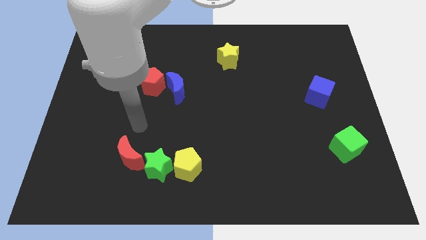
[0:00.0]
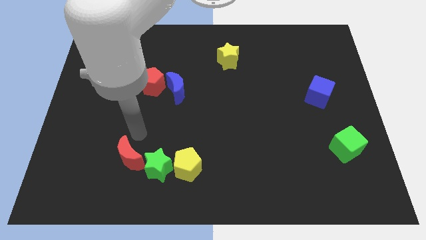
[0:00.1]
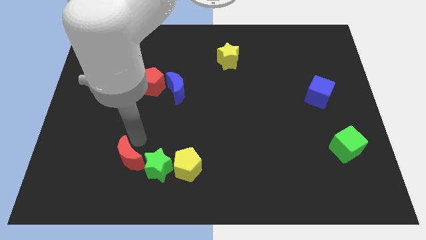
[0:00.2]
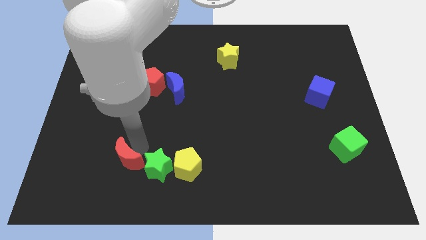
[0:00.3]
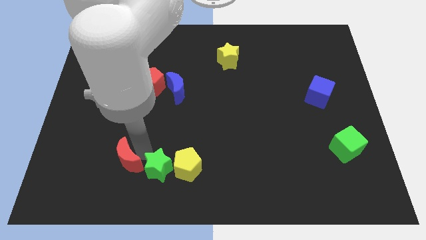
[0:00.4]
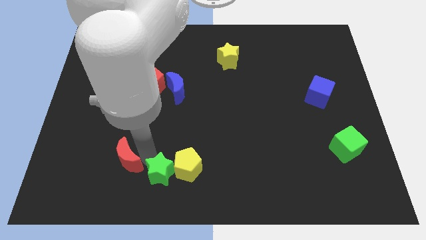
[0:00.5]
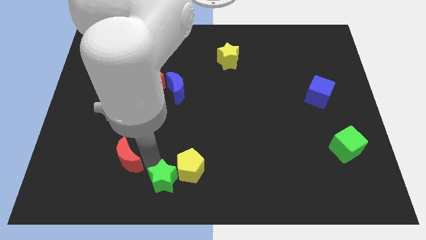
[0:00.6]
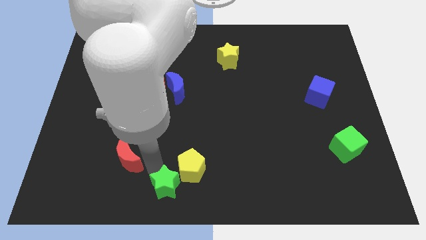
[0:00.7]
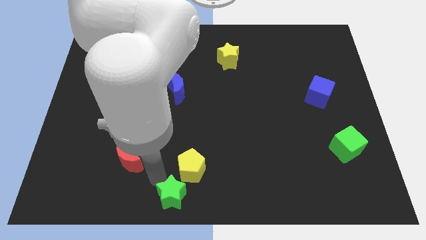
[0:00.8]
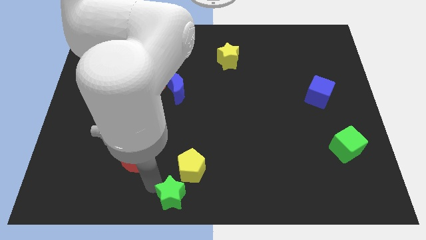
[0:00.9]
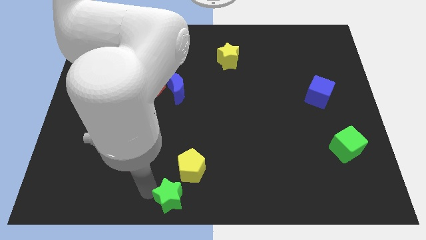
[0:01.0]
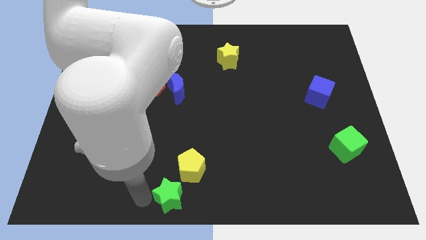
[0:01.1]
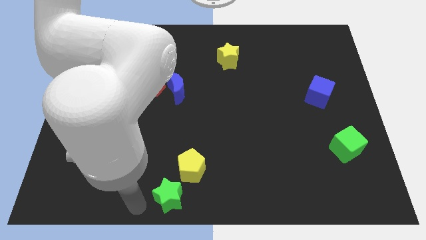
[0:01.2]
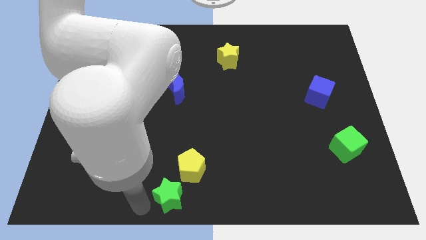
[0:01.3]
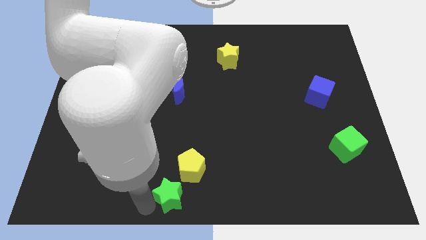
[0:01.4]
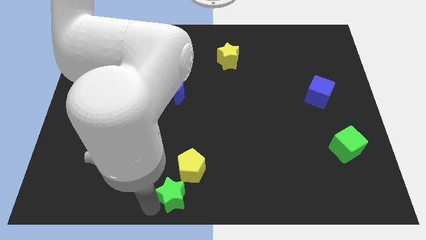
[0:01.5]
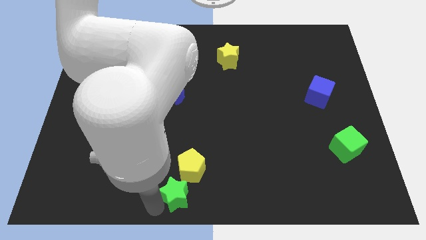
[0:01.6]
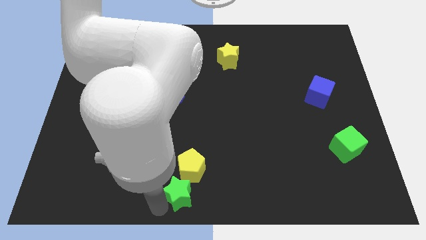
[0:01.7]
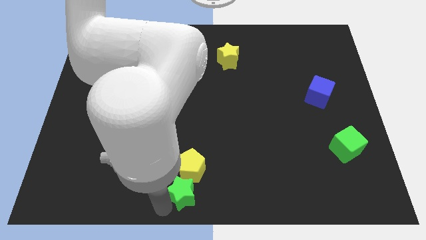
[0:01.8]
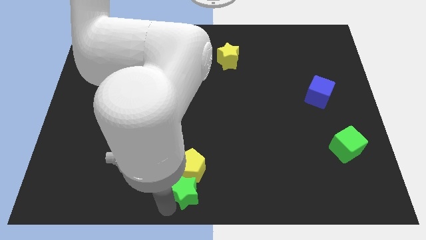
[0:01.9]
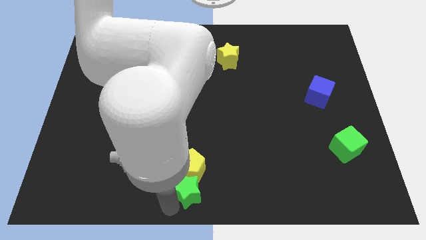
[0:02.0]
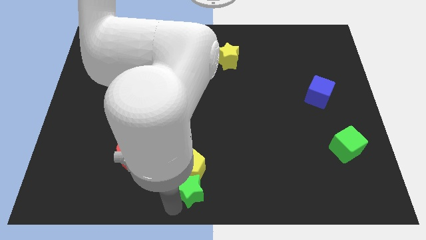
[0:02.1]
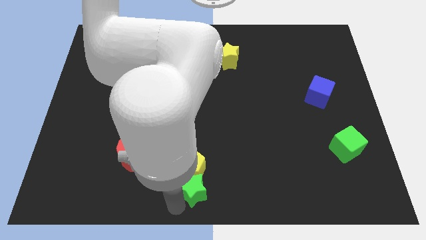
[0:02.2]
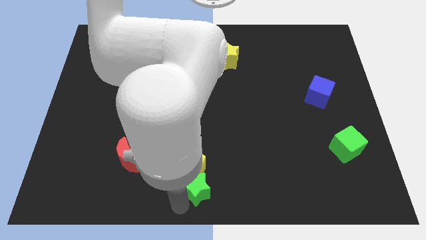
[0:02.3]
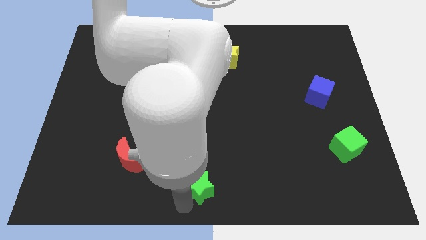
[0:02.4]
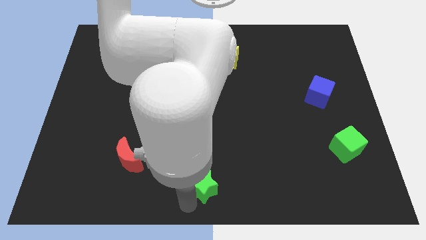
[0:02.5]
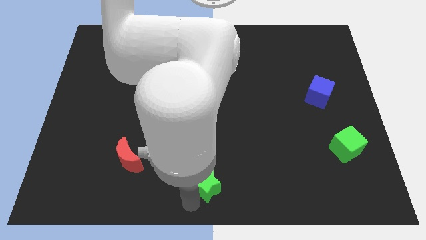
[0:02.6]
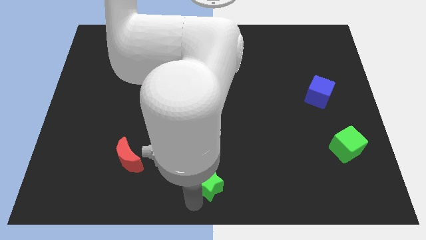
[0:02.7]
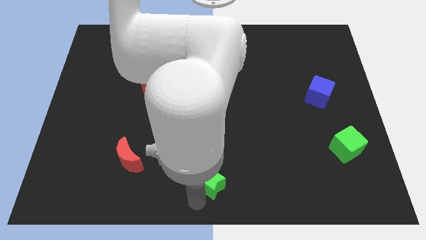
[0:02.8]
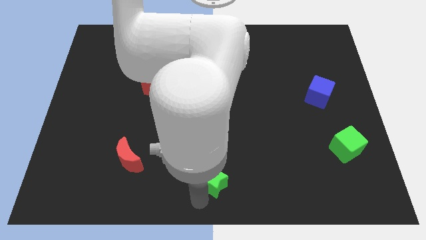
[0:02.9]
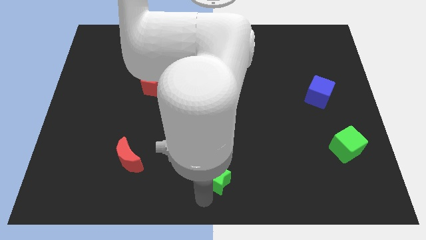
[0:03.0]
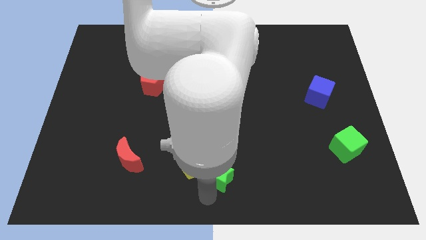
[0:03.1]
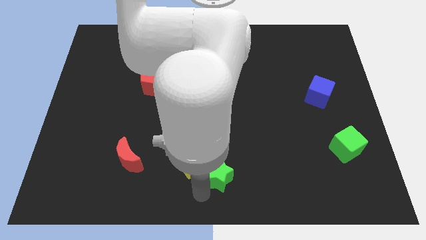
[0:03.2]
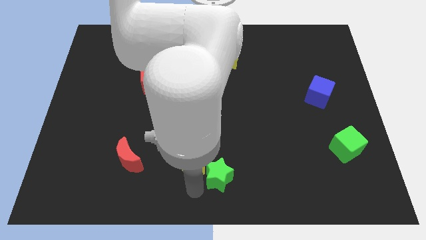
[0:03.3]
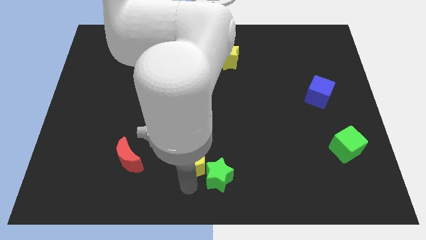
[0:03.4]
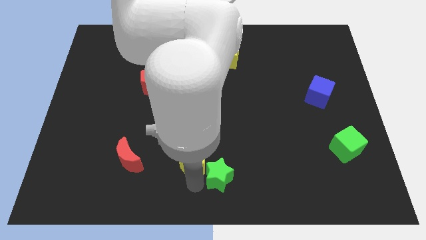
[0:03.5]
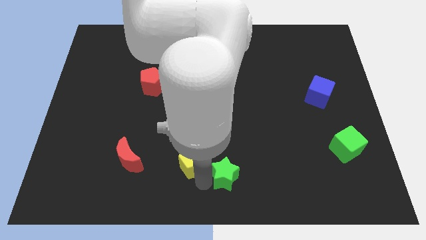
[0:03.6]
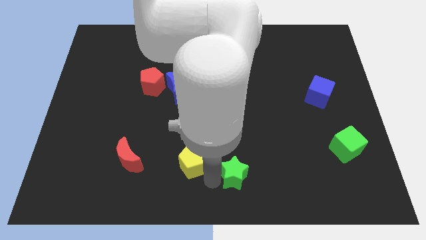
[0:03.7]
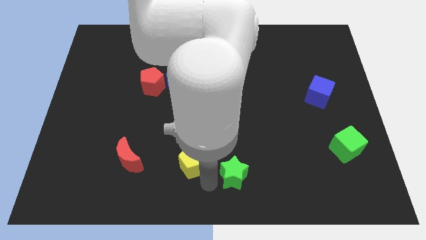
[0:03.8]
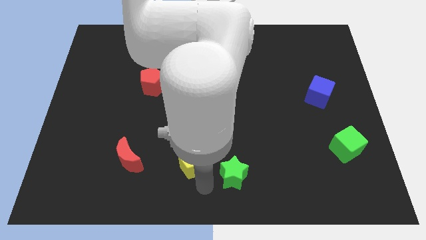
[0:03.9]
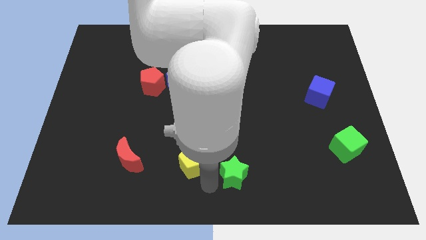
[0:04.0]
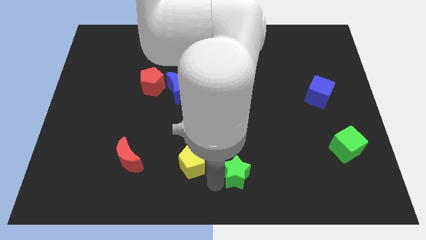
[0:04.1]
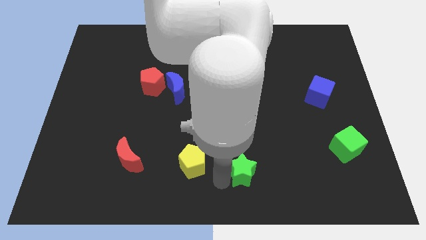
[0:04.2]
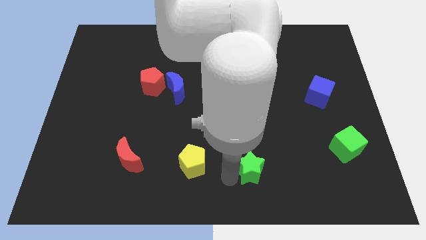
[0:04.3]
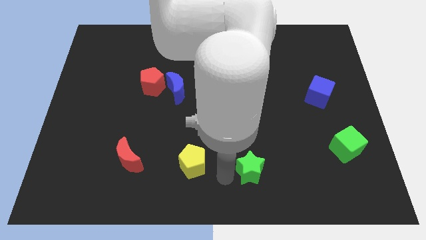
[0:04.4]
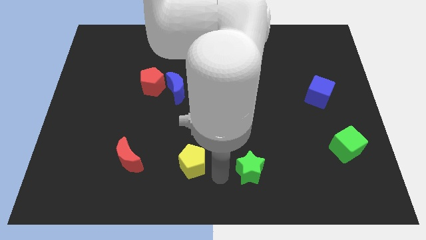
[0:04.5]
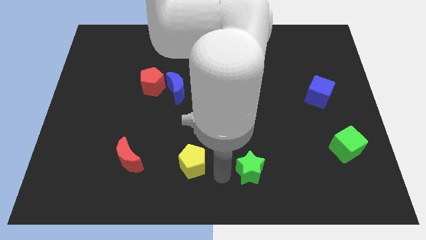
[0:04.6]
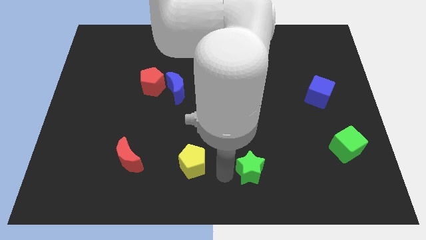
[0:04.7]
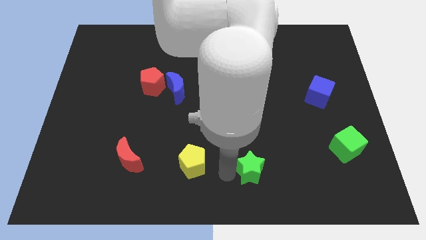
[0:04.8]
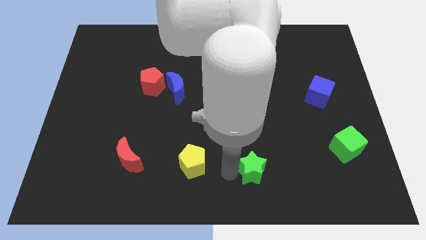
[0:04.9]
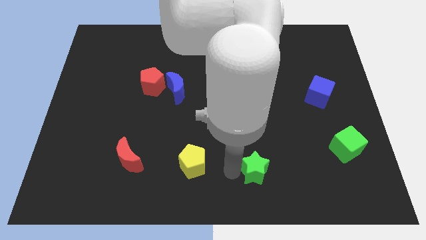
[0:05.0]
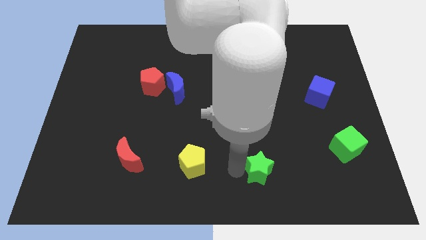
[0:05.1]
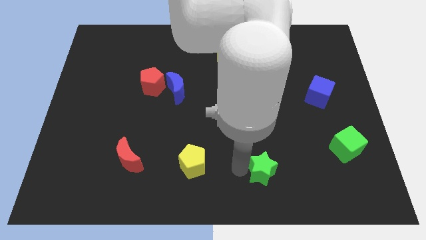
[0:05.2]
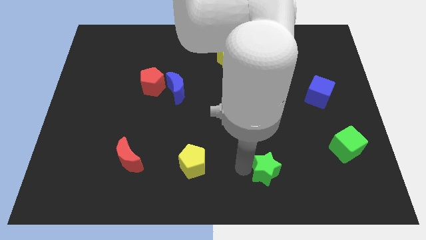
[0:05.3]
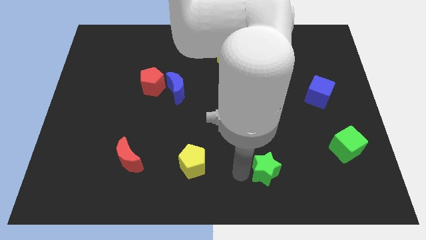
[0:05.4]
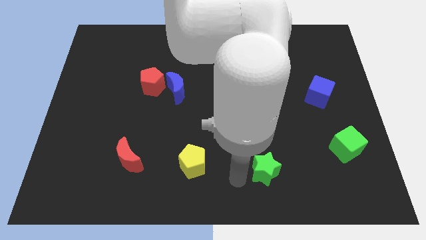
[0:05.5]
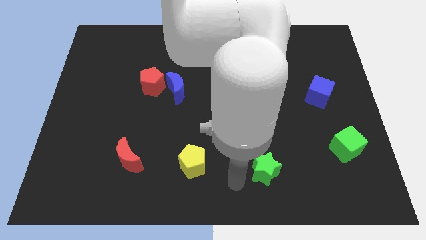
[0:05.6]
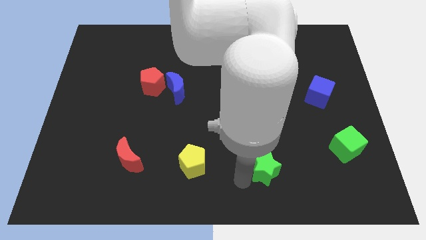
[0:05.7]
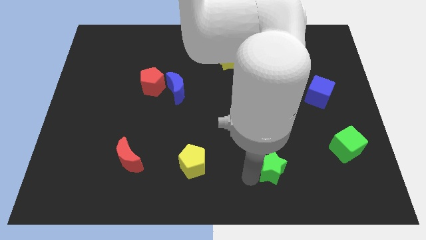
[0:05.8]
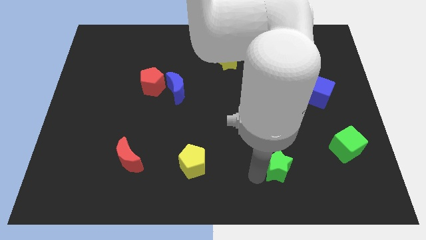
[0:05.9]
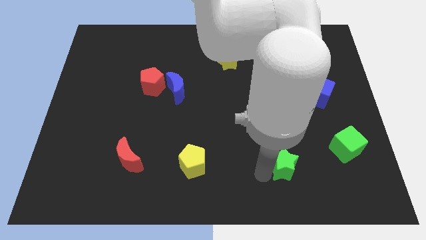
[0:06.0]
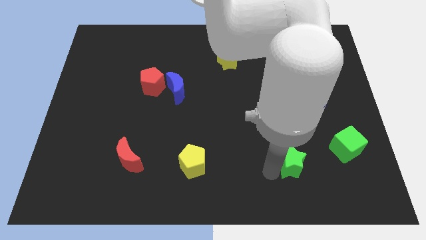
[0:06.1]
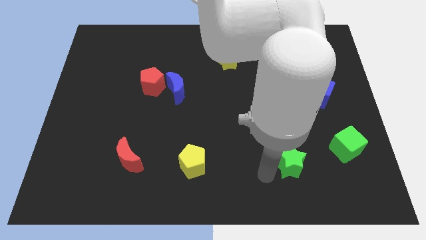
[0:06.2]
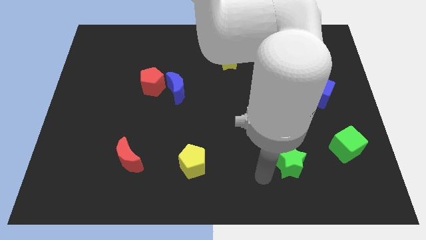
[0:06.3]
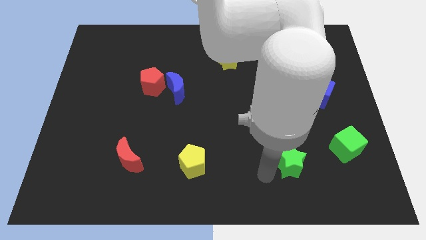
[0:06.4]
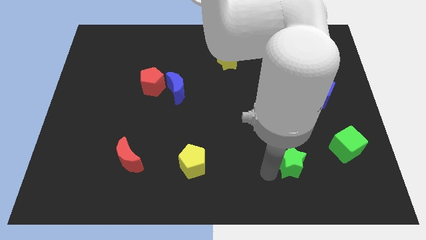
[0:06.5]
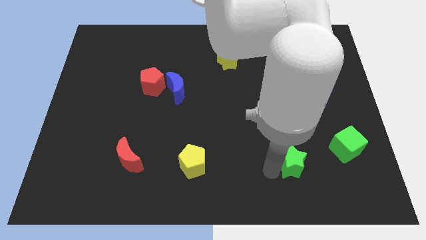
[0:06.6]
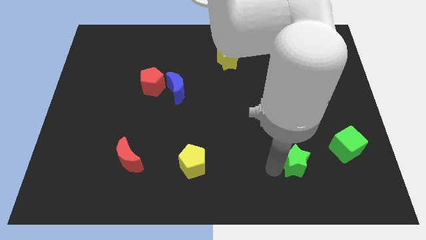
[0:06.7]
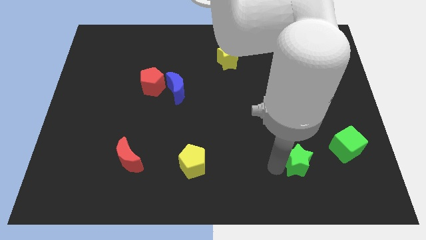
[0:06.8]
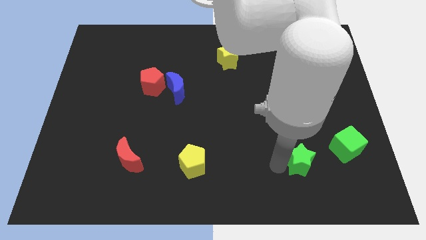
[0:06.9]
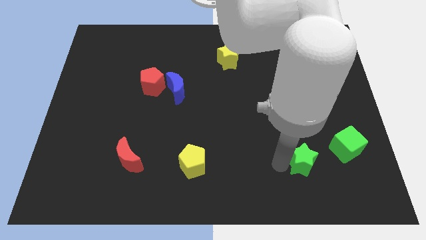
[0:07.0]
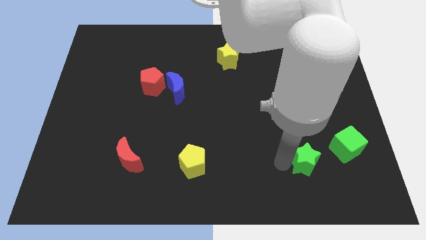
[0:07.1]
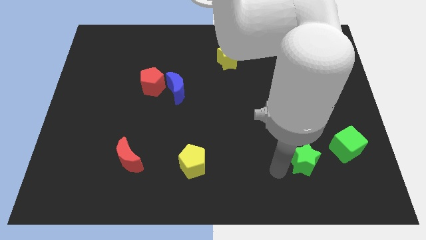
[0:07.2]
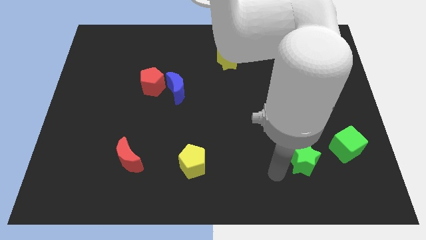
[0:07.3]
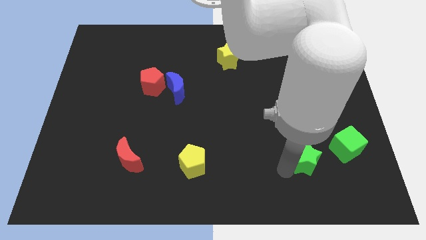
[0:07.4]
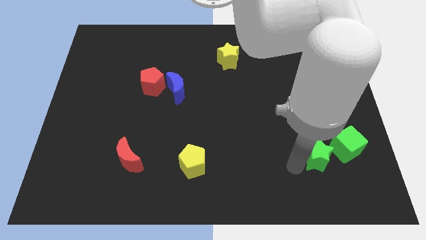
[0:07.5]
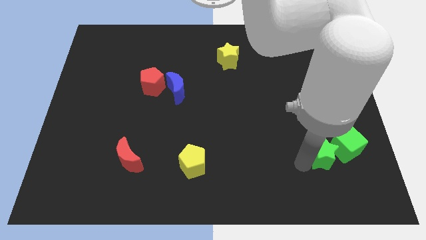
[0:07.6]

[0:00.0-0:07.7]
slide the green star towards the green cube

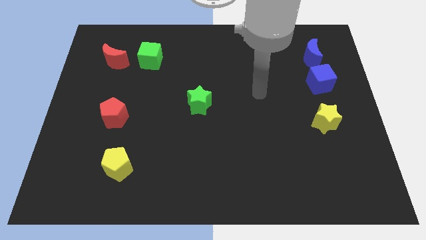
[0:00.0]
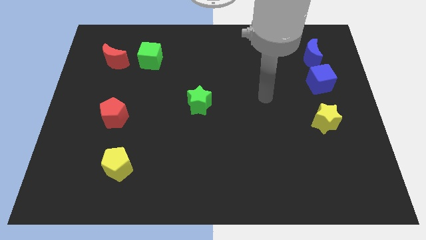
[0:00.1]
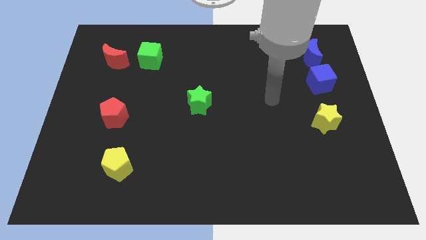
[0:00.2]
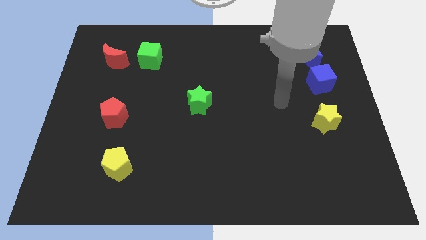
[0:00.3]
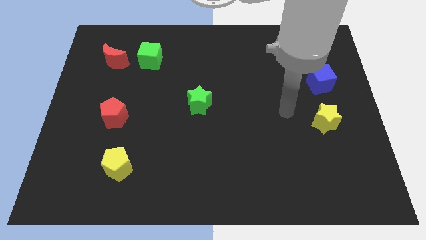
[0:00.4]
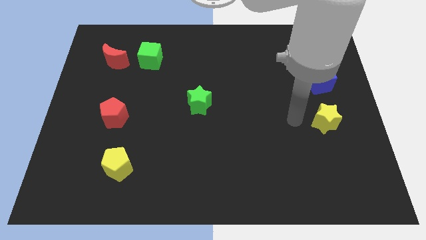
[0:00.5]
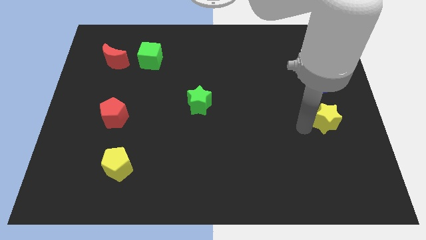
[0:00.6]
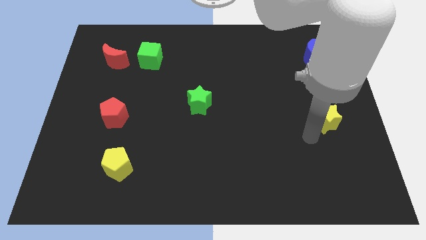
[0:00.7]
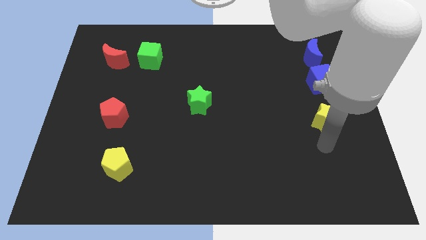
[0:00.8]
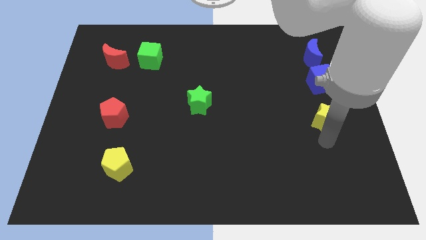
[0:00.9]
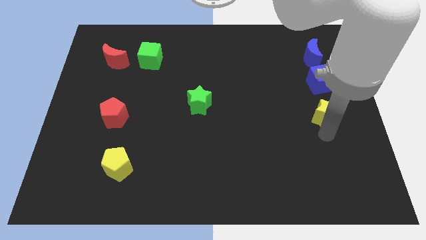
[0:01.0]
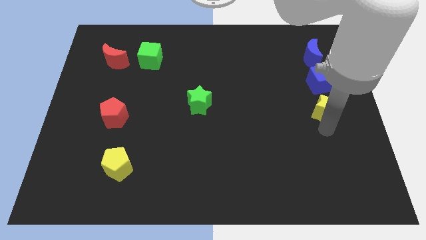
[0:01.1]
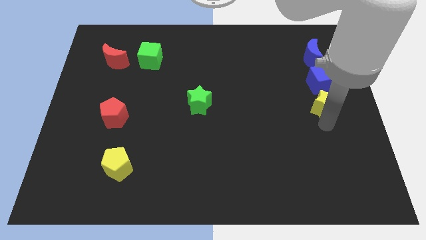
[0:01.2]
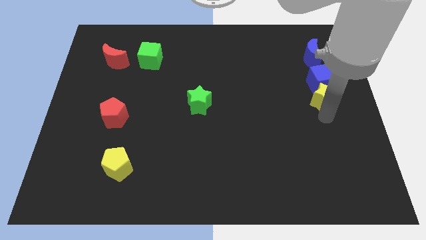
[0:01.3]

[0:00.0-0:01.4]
push the yellow star close to the blue cube
